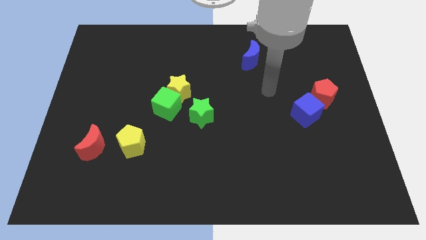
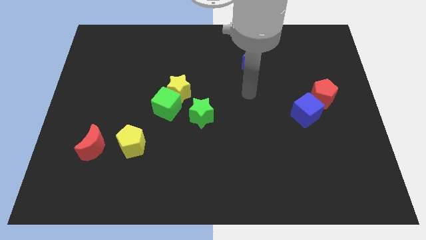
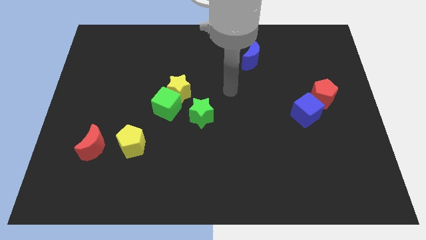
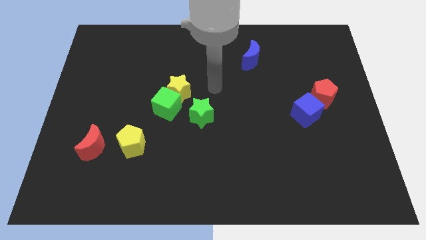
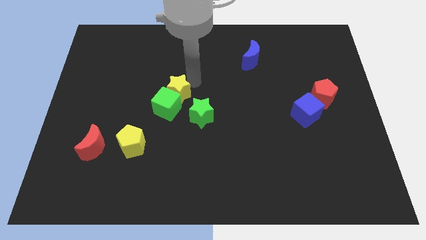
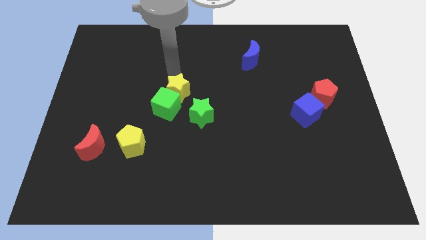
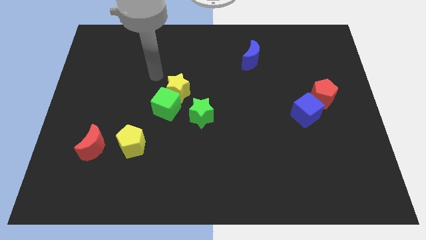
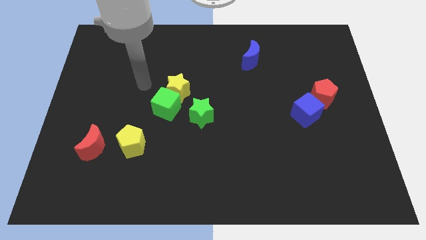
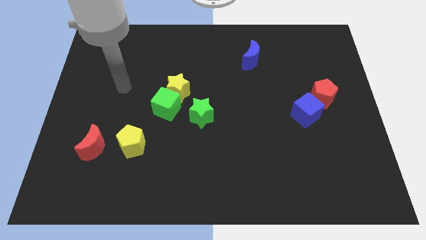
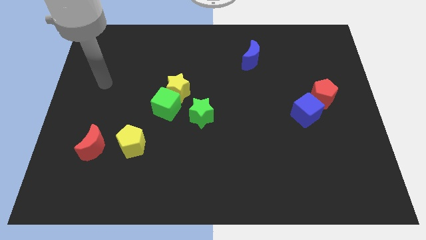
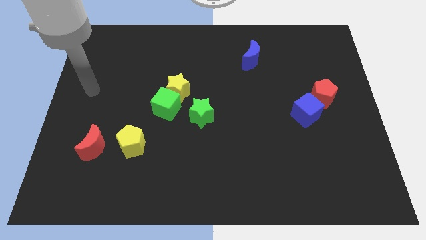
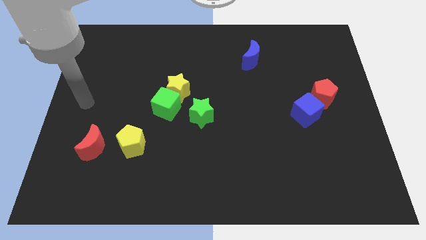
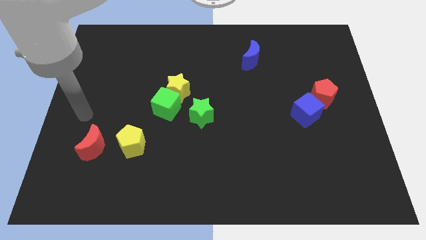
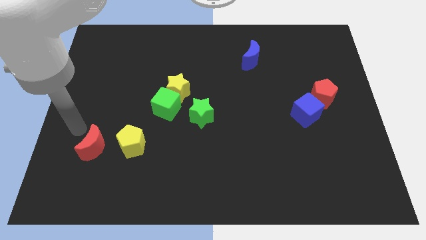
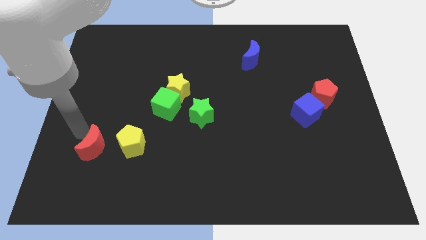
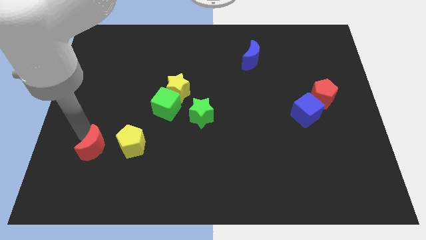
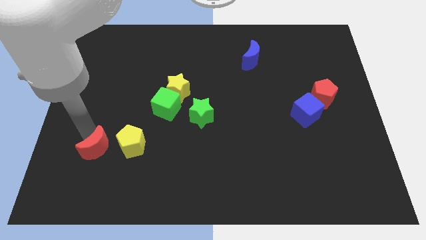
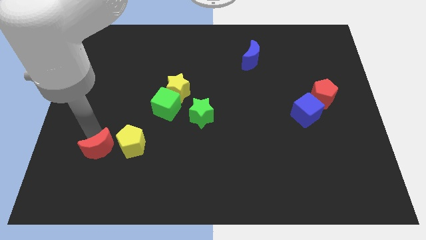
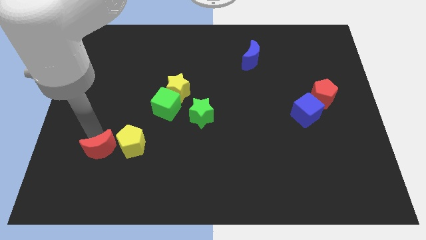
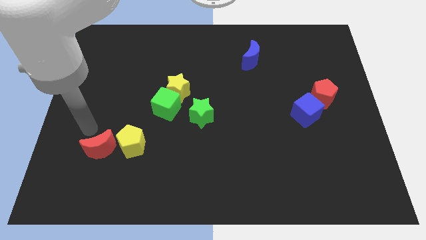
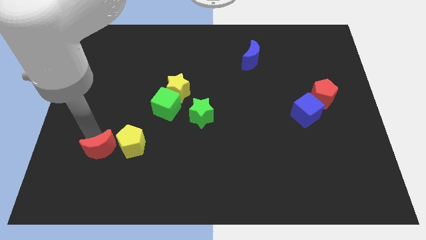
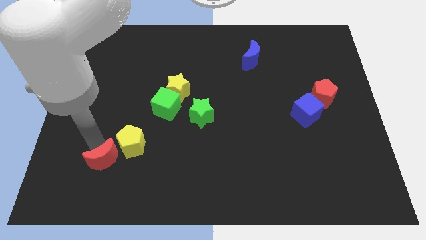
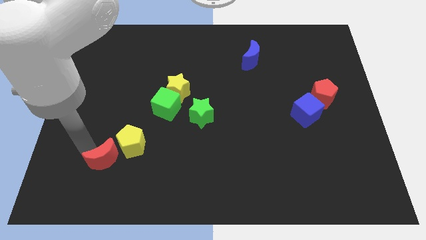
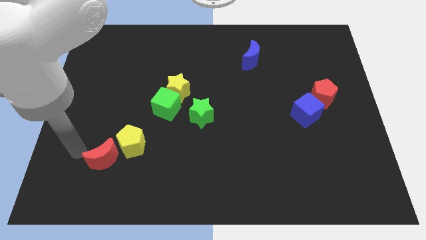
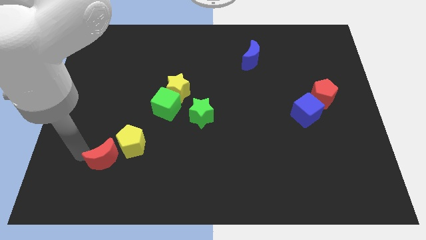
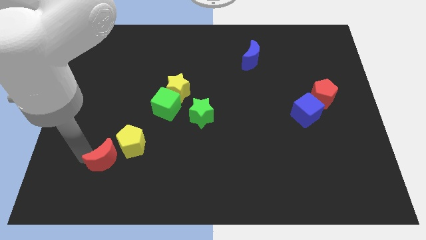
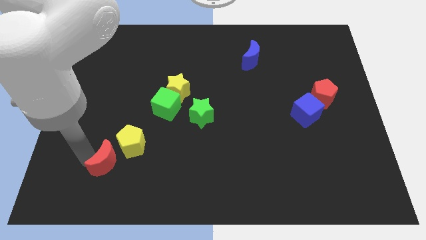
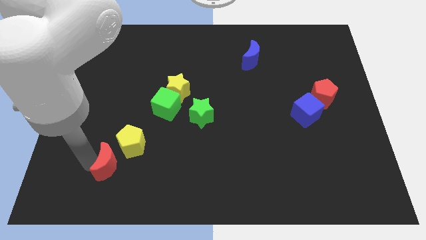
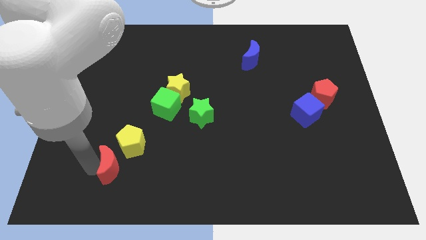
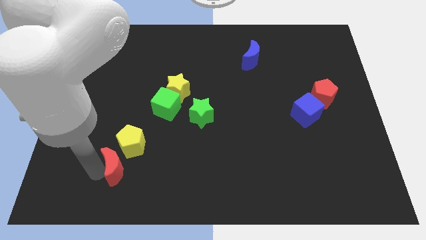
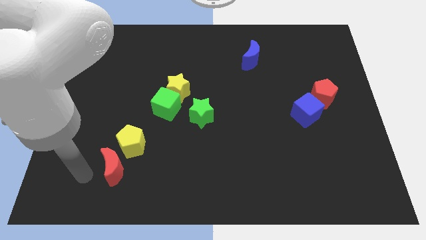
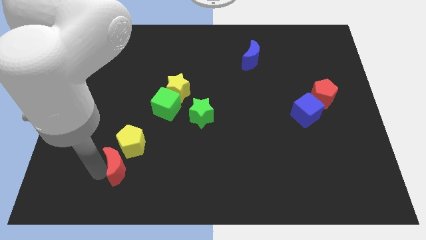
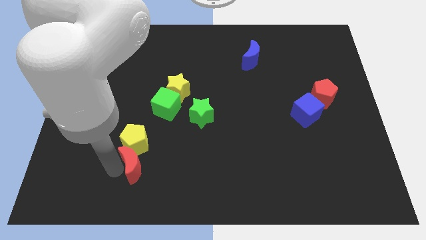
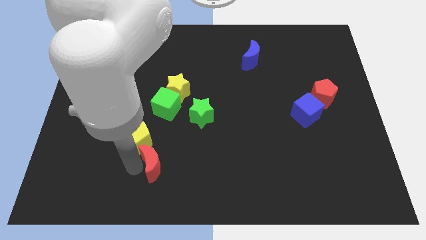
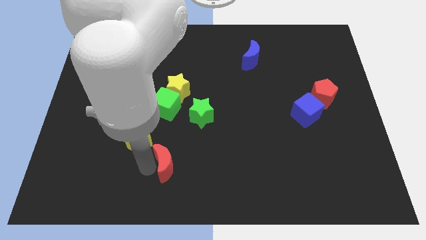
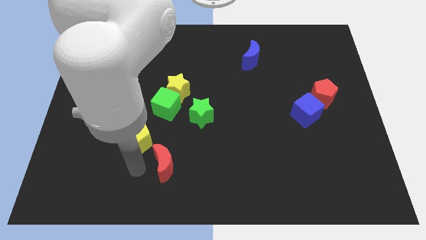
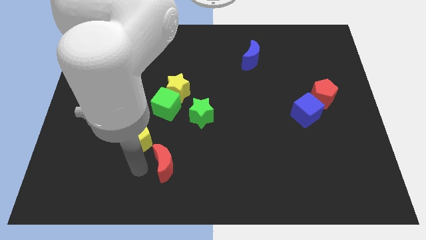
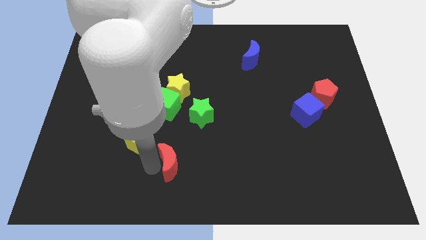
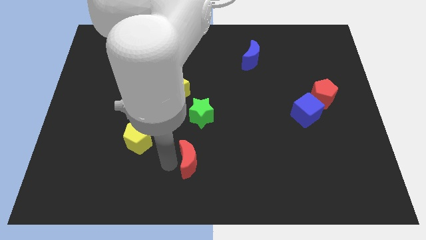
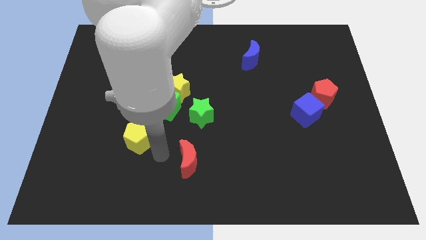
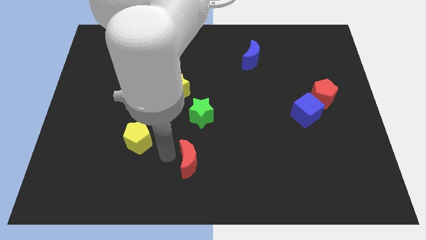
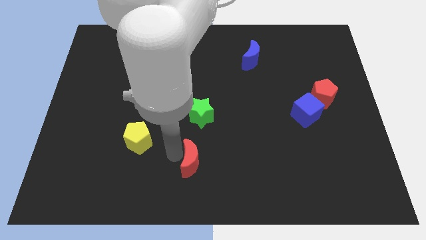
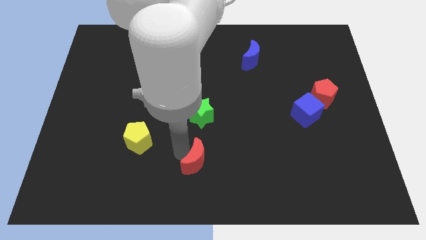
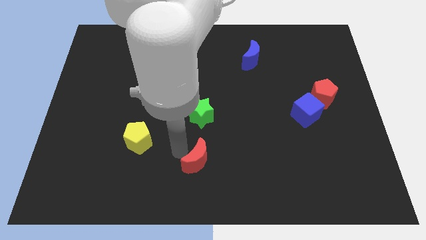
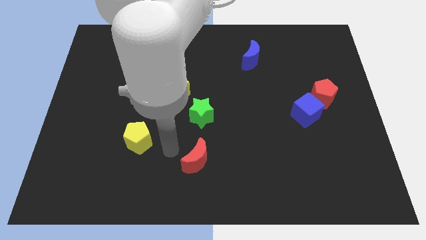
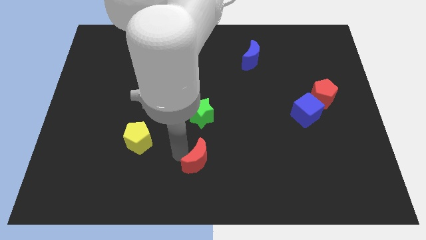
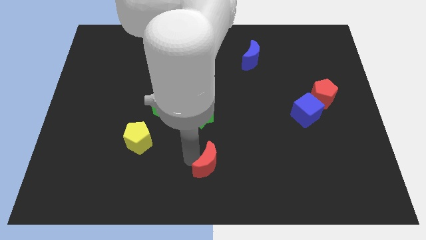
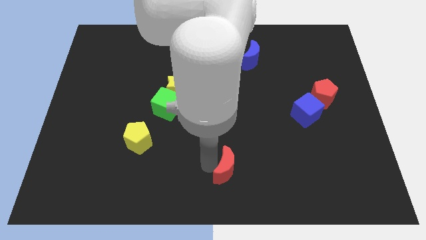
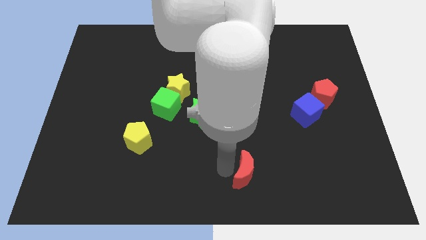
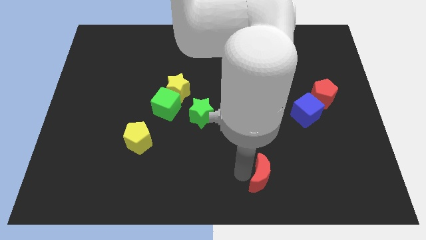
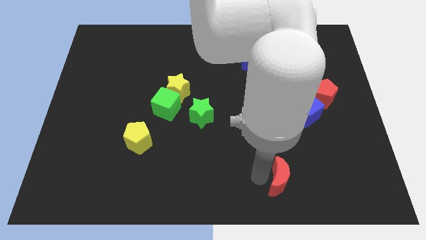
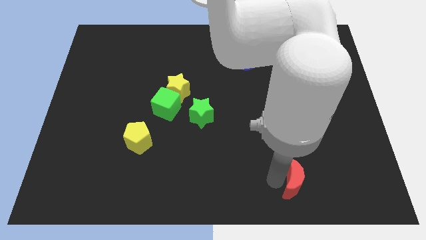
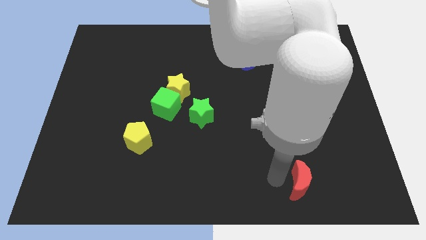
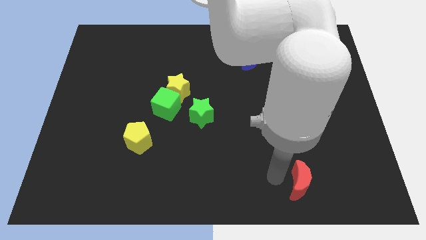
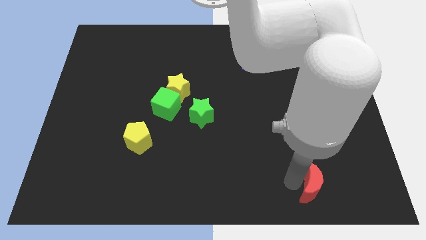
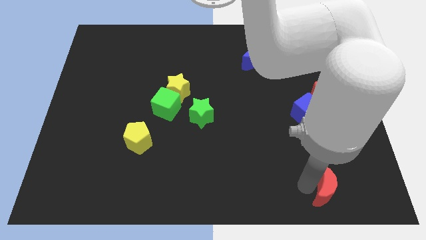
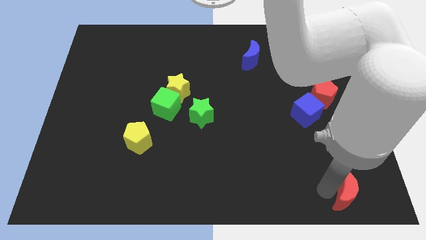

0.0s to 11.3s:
push the red moon to the lower right corner
